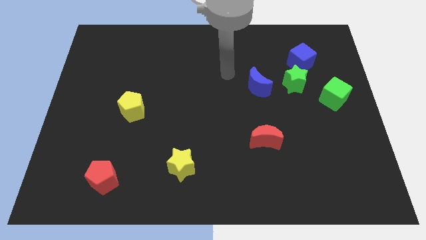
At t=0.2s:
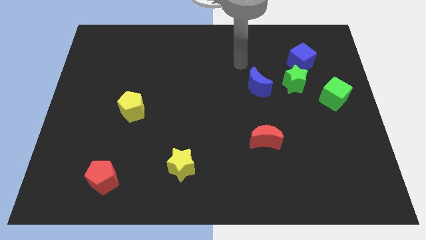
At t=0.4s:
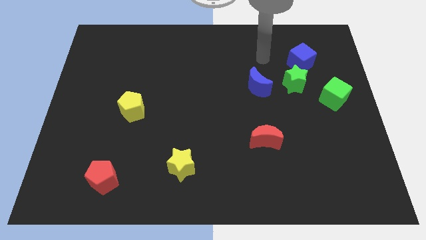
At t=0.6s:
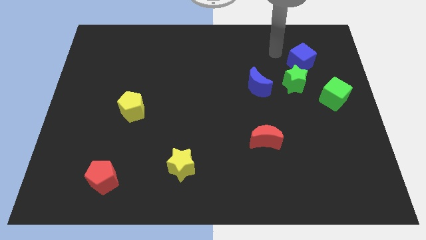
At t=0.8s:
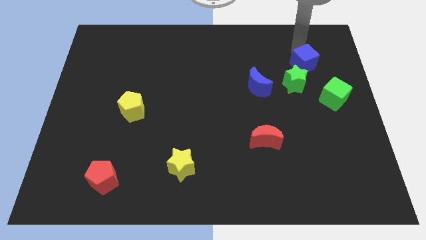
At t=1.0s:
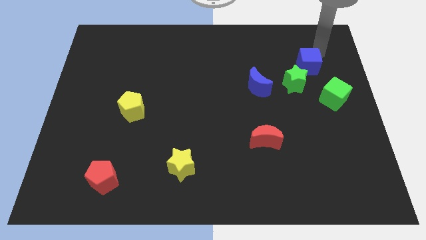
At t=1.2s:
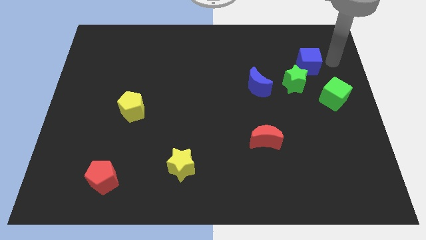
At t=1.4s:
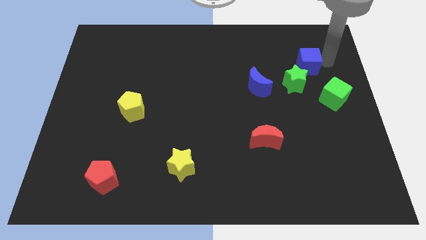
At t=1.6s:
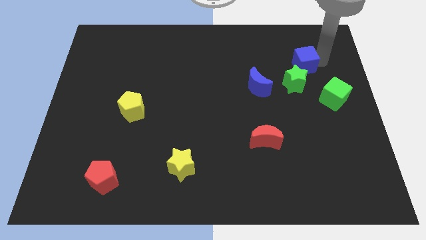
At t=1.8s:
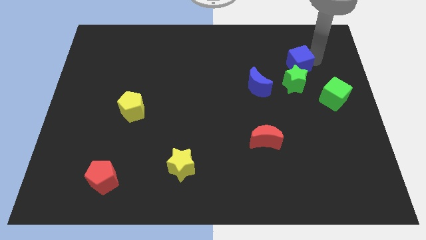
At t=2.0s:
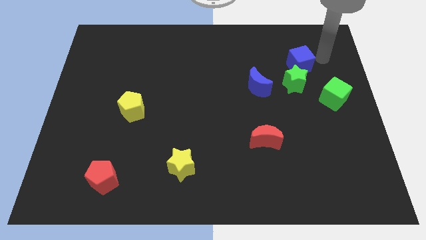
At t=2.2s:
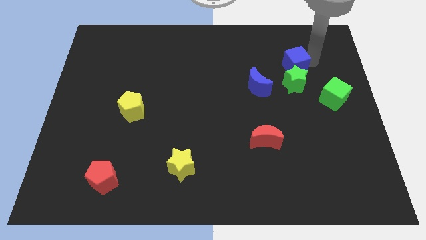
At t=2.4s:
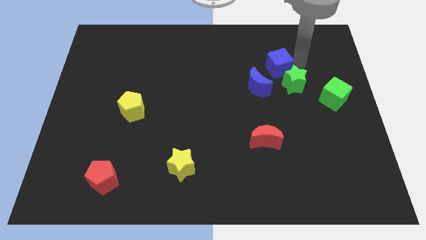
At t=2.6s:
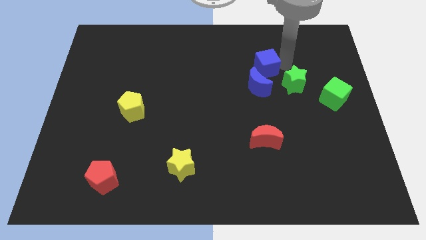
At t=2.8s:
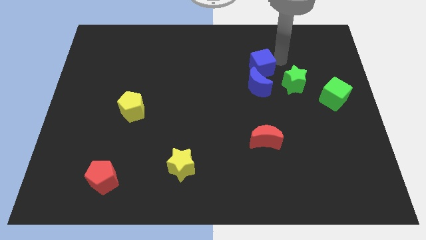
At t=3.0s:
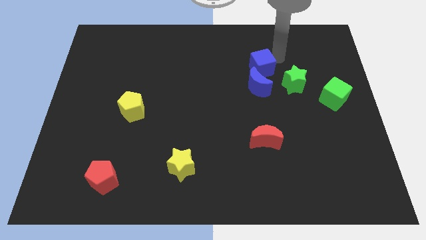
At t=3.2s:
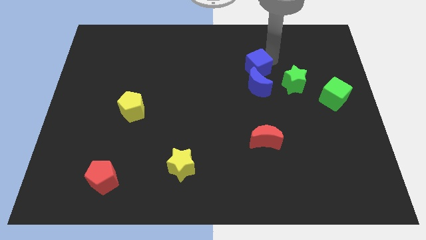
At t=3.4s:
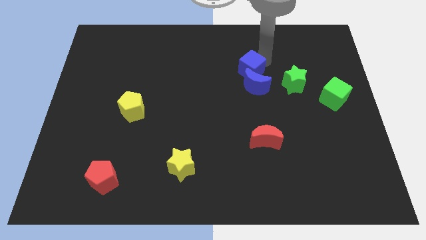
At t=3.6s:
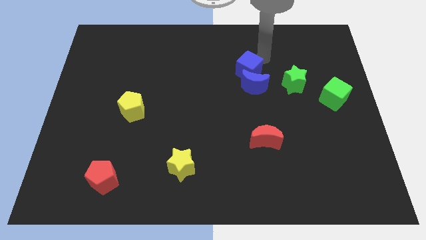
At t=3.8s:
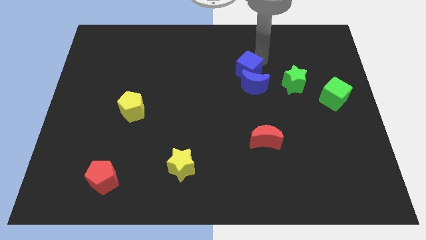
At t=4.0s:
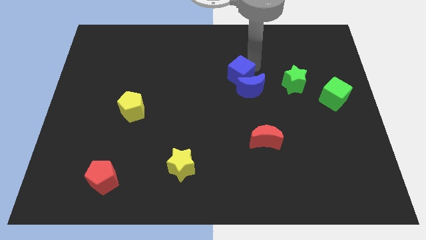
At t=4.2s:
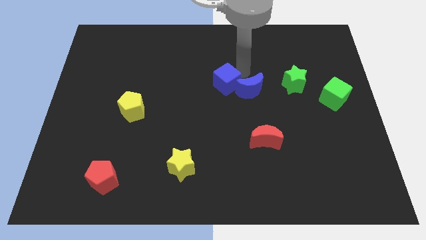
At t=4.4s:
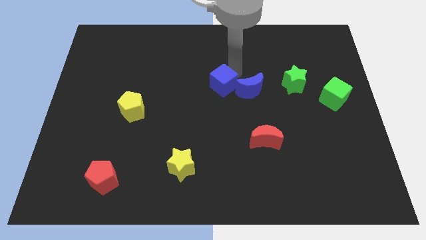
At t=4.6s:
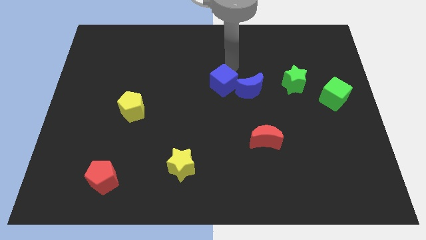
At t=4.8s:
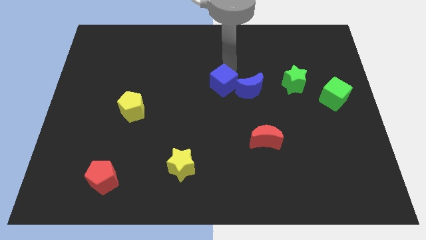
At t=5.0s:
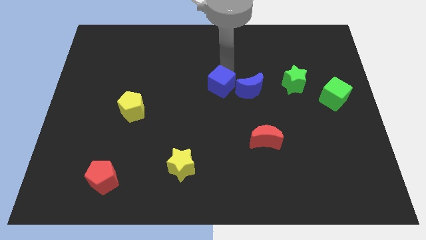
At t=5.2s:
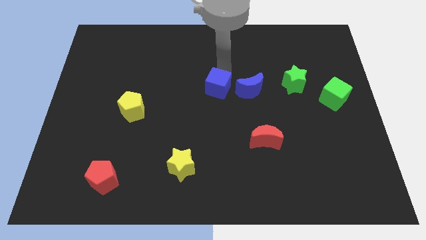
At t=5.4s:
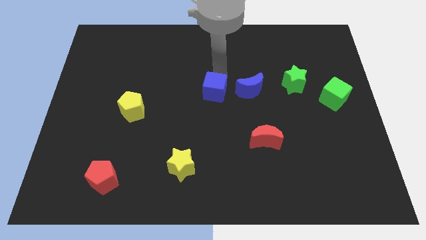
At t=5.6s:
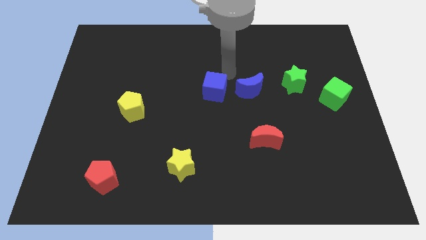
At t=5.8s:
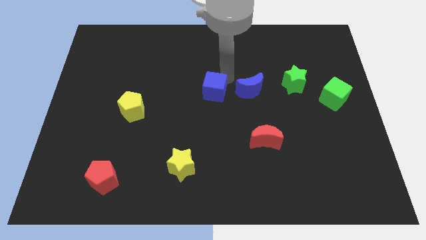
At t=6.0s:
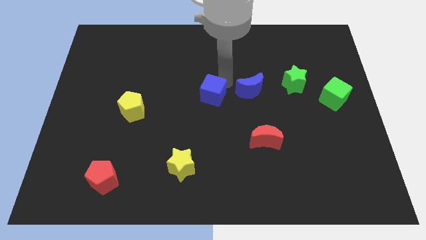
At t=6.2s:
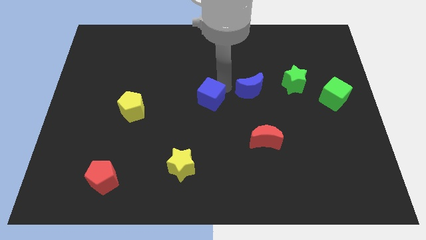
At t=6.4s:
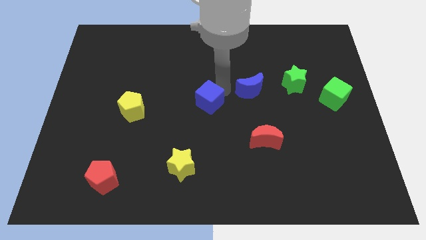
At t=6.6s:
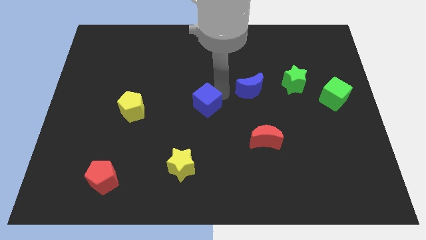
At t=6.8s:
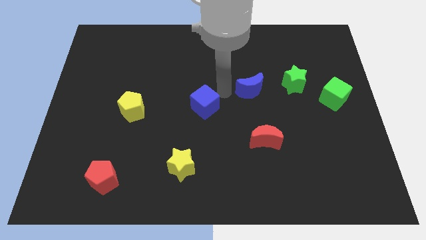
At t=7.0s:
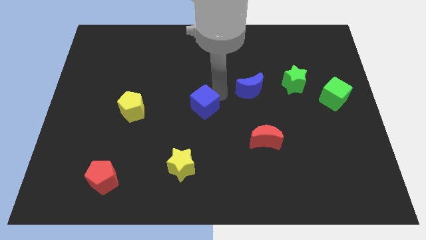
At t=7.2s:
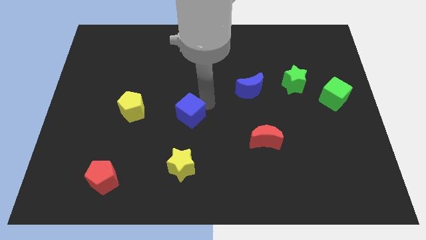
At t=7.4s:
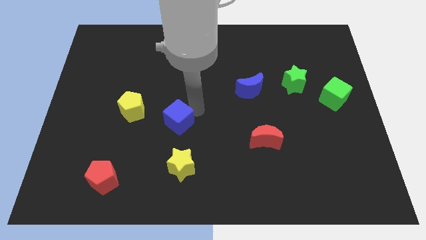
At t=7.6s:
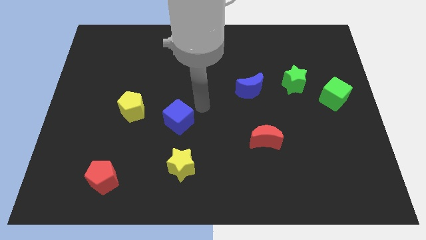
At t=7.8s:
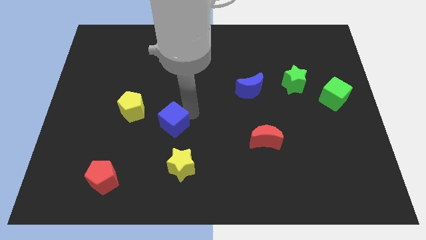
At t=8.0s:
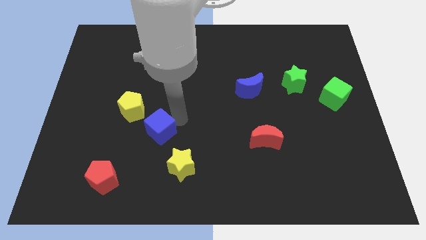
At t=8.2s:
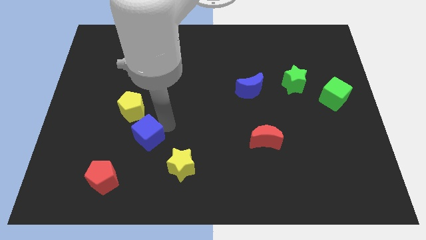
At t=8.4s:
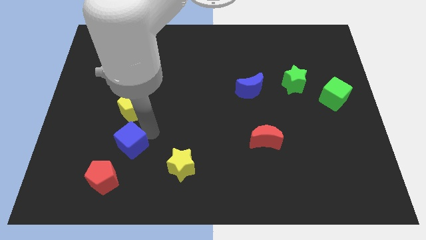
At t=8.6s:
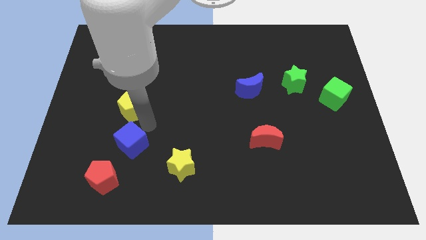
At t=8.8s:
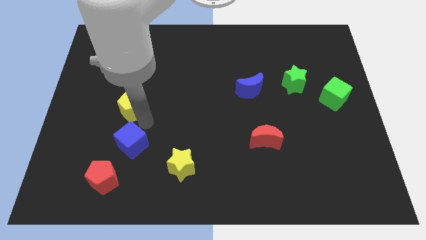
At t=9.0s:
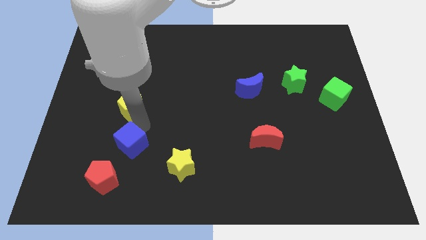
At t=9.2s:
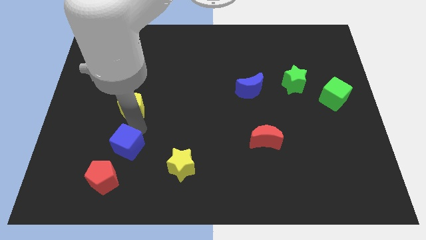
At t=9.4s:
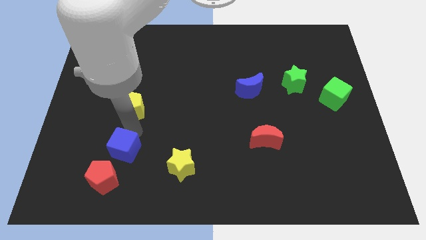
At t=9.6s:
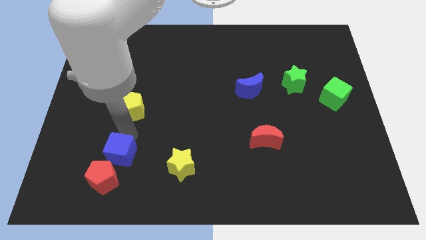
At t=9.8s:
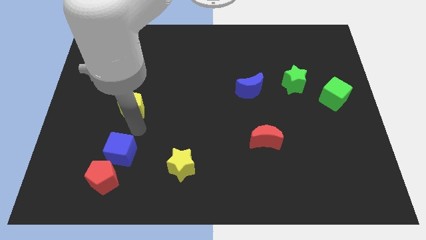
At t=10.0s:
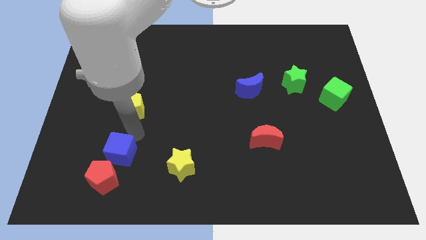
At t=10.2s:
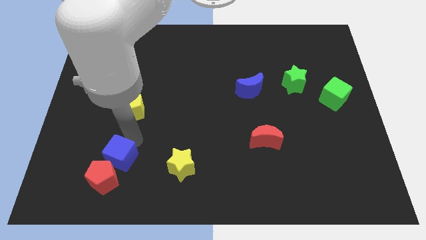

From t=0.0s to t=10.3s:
push the blue cube next to the red pentagon
